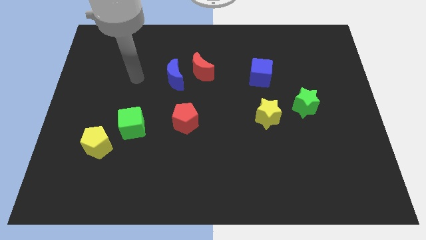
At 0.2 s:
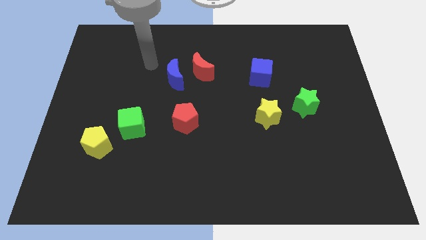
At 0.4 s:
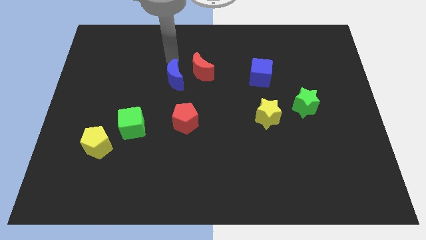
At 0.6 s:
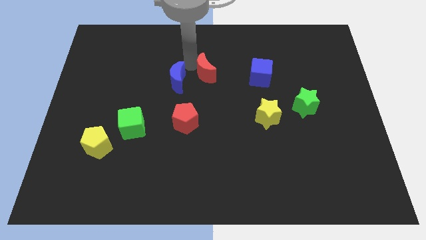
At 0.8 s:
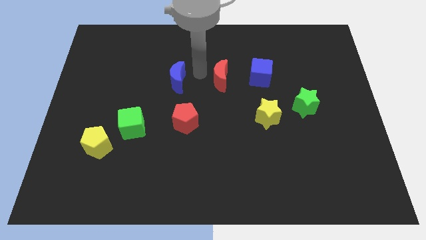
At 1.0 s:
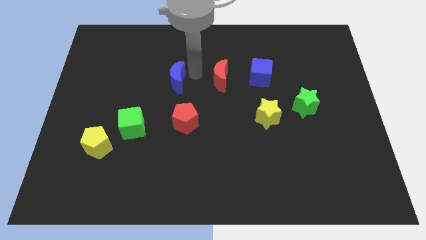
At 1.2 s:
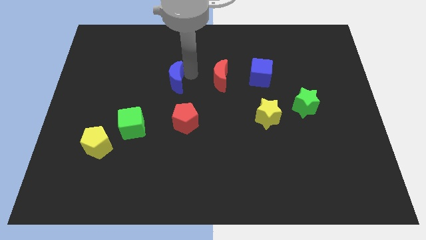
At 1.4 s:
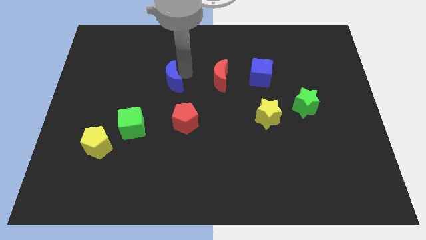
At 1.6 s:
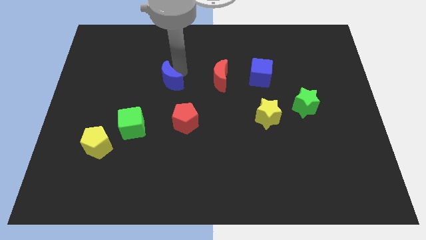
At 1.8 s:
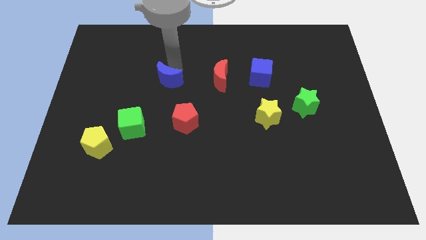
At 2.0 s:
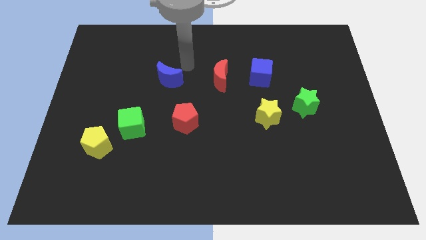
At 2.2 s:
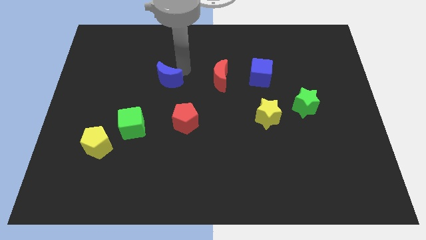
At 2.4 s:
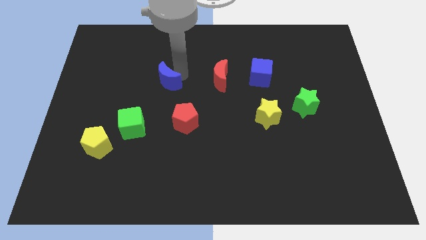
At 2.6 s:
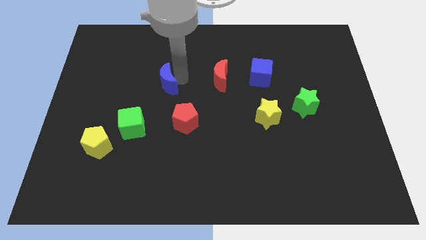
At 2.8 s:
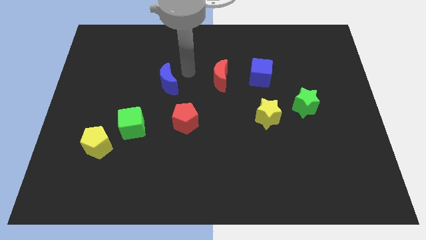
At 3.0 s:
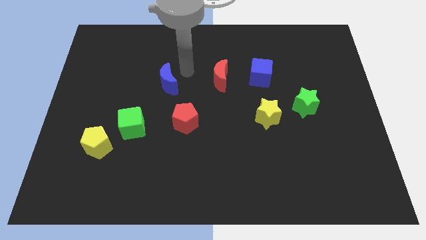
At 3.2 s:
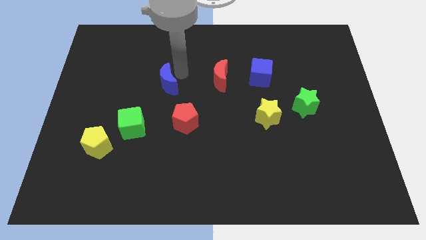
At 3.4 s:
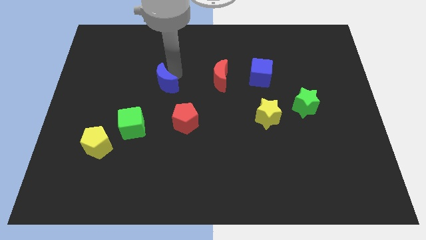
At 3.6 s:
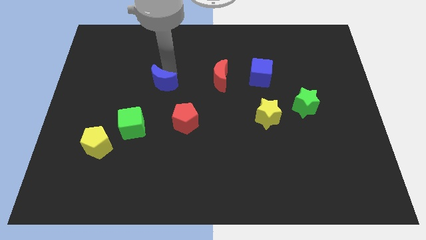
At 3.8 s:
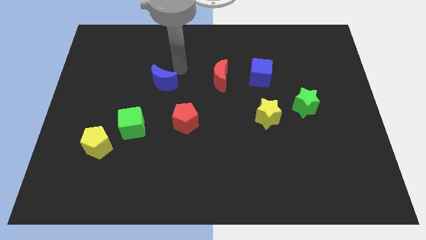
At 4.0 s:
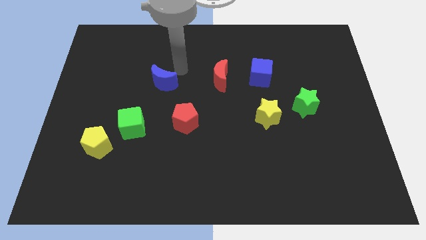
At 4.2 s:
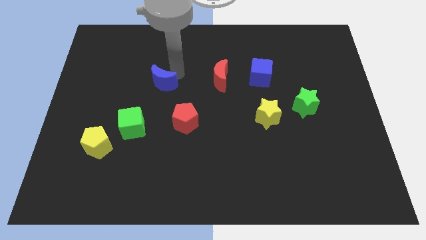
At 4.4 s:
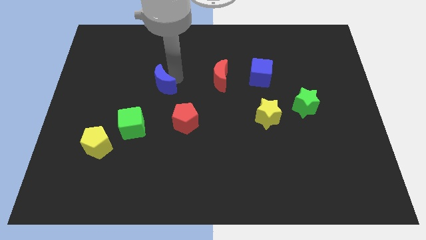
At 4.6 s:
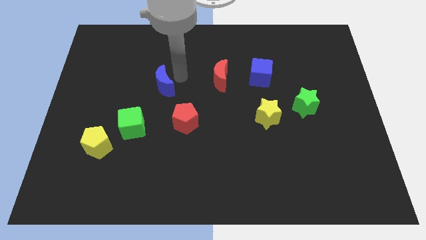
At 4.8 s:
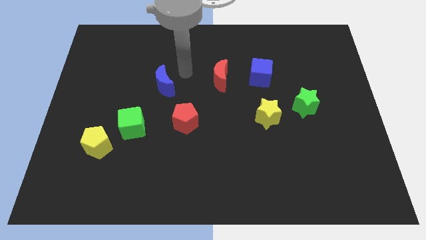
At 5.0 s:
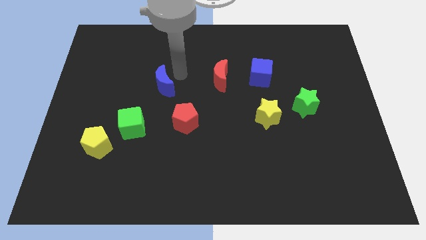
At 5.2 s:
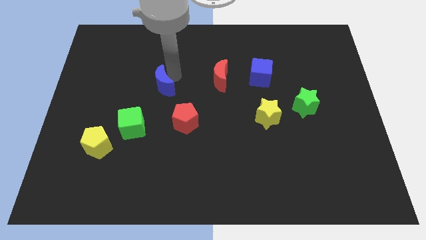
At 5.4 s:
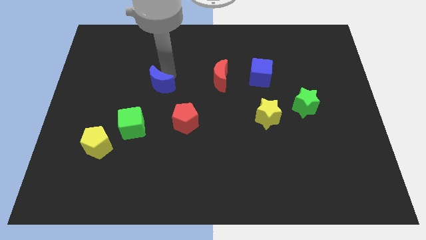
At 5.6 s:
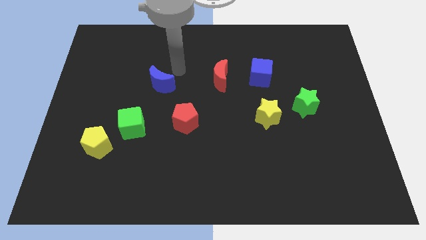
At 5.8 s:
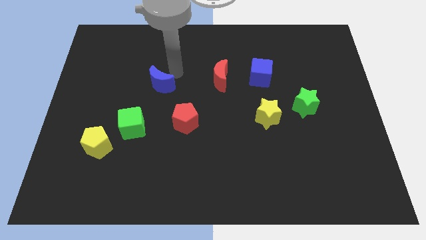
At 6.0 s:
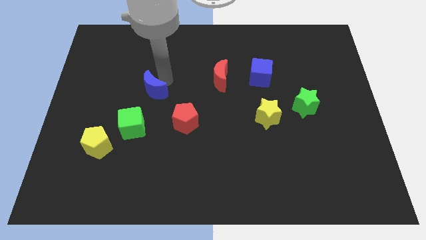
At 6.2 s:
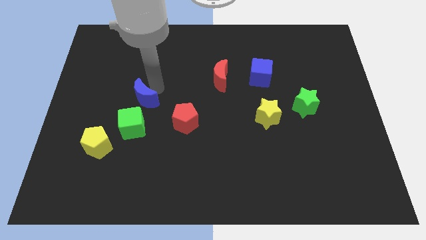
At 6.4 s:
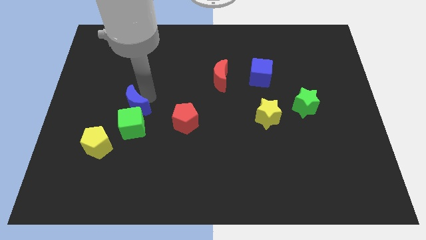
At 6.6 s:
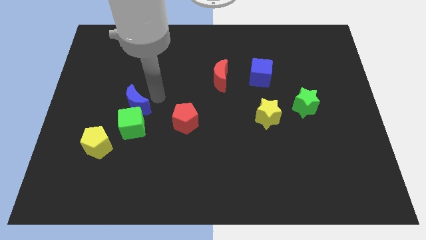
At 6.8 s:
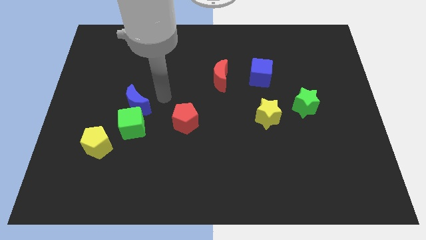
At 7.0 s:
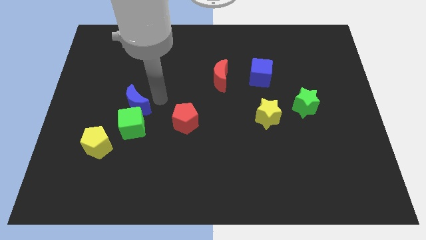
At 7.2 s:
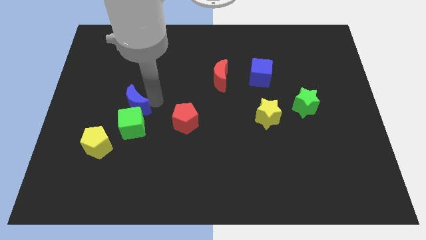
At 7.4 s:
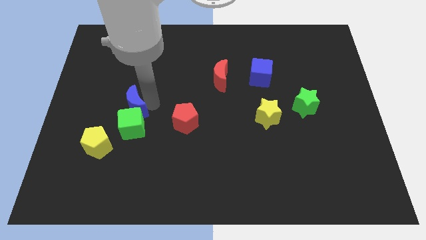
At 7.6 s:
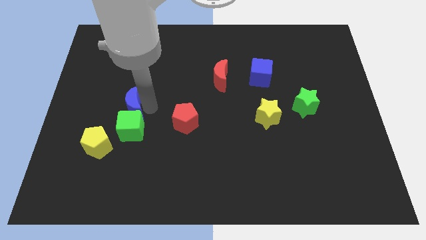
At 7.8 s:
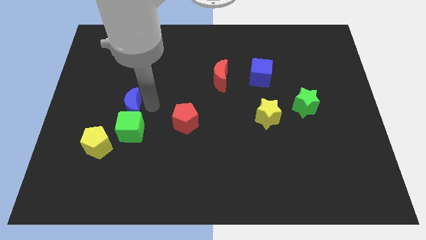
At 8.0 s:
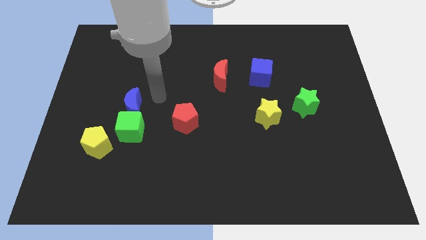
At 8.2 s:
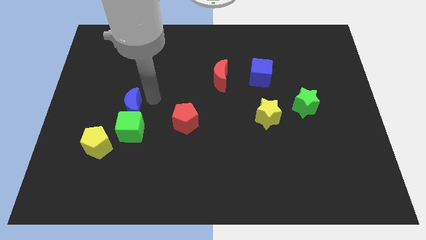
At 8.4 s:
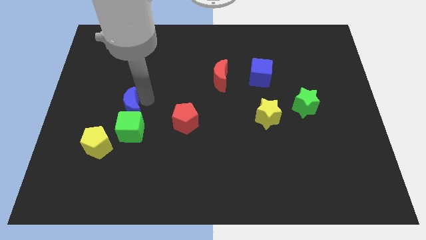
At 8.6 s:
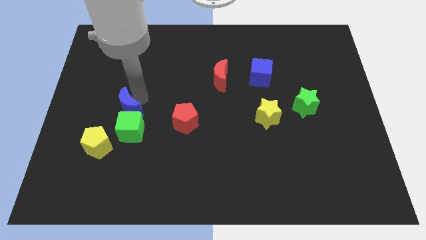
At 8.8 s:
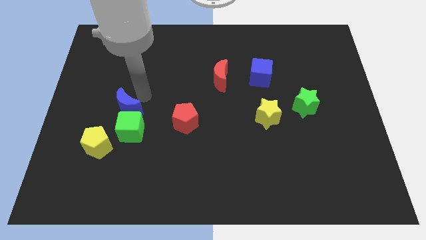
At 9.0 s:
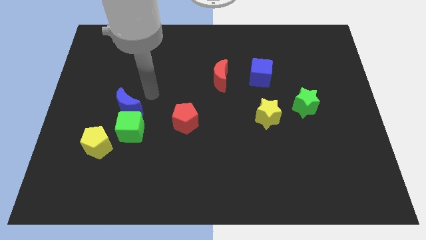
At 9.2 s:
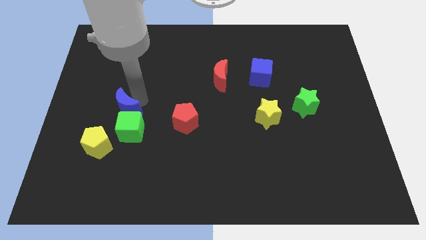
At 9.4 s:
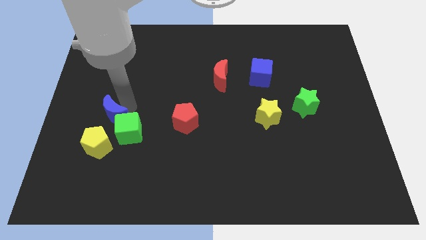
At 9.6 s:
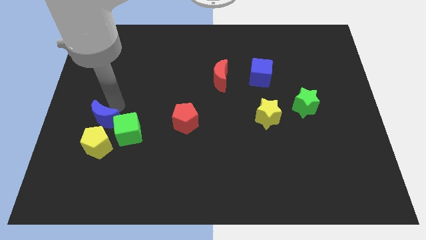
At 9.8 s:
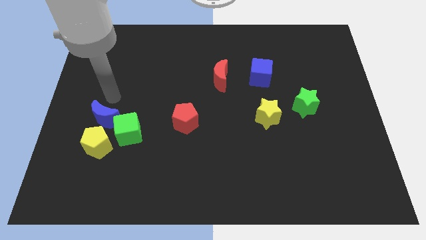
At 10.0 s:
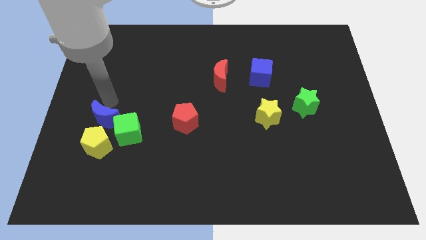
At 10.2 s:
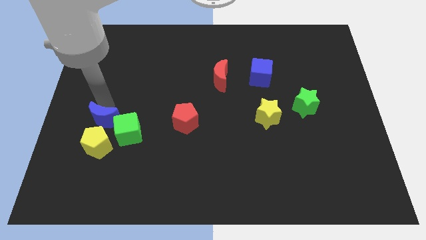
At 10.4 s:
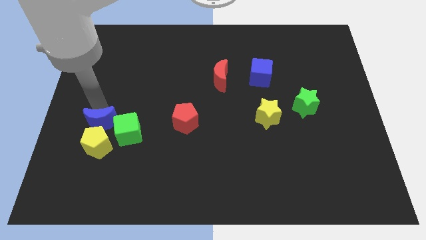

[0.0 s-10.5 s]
push the blue moon to the yellow pentagon

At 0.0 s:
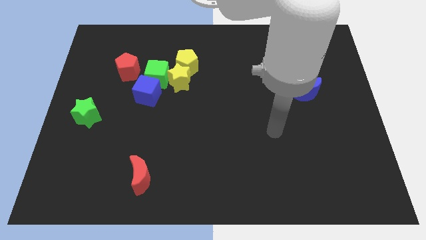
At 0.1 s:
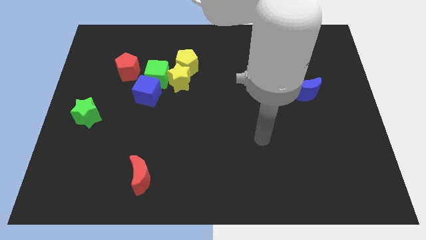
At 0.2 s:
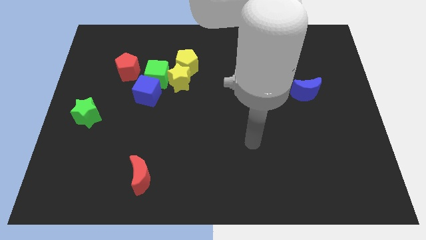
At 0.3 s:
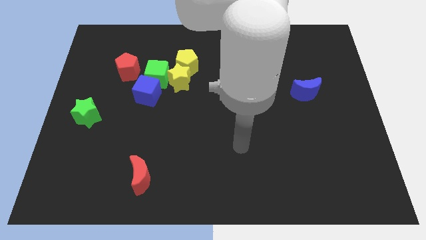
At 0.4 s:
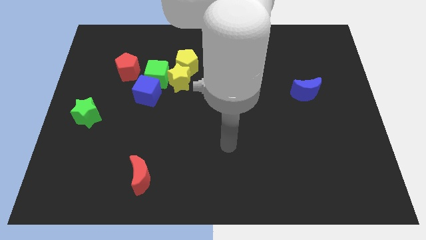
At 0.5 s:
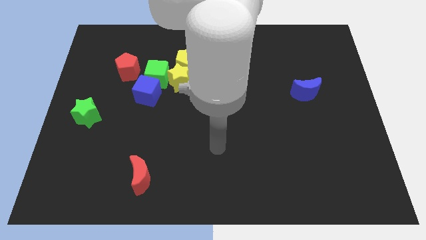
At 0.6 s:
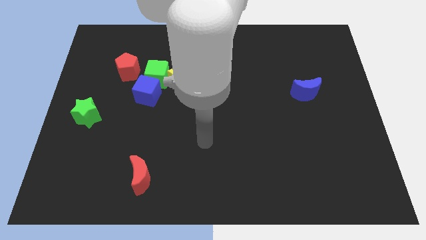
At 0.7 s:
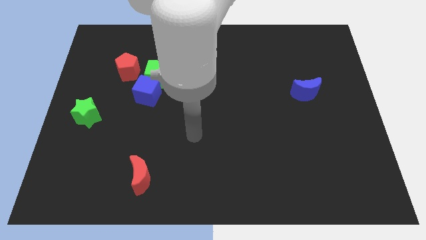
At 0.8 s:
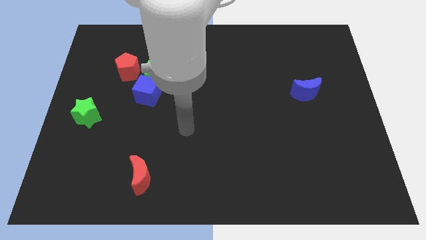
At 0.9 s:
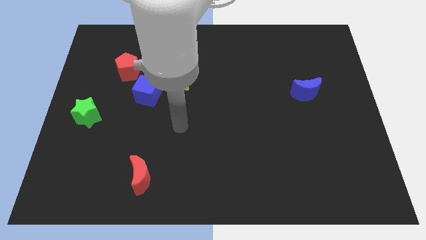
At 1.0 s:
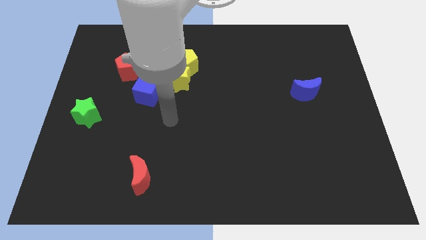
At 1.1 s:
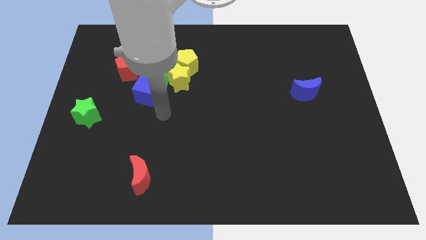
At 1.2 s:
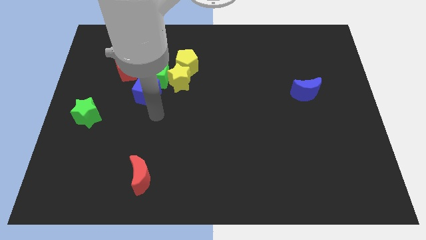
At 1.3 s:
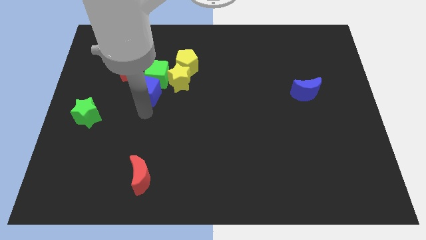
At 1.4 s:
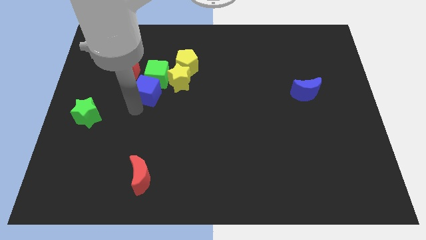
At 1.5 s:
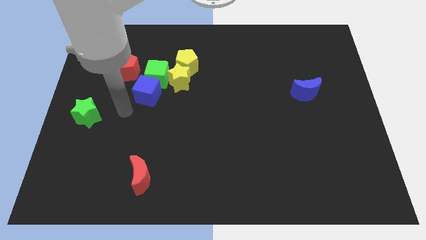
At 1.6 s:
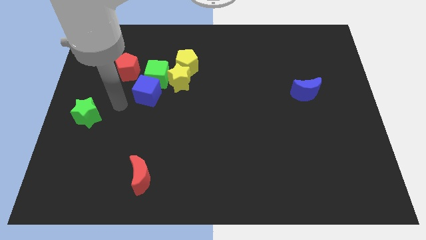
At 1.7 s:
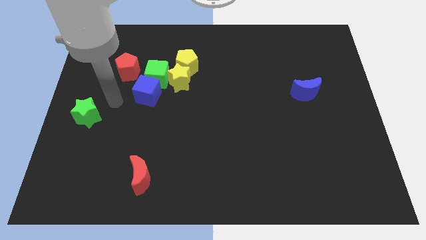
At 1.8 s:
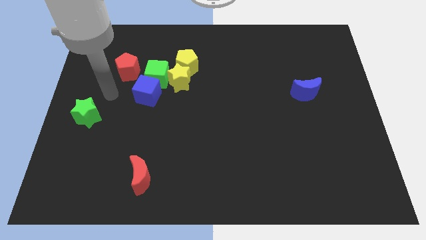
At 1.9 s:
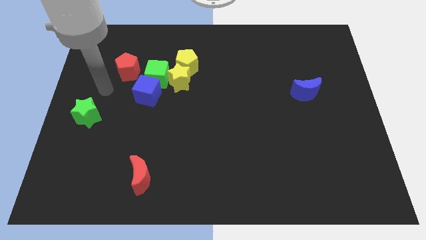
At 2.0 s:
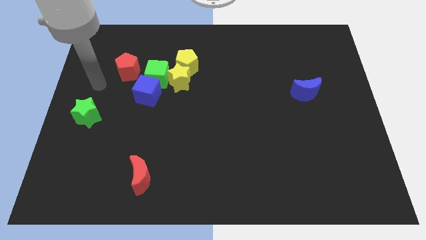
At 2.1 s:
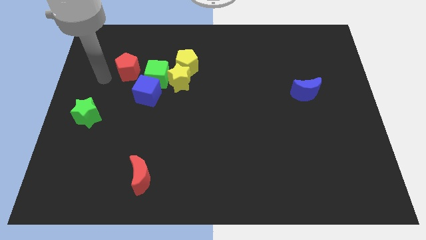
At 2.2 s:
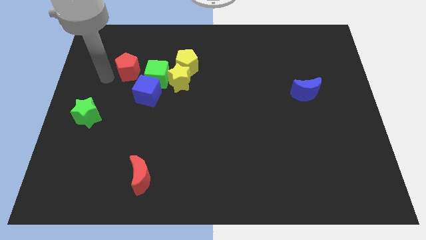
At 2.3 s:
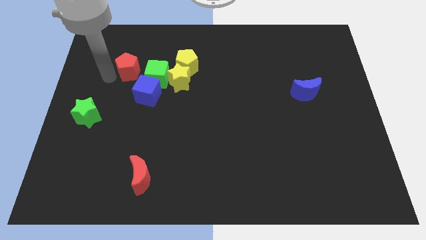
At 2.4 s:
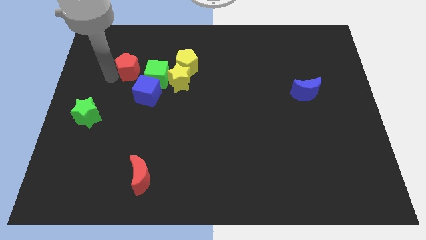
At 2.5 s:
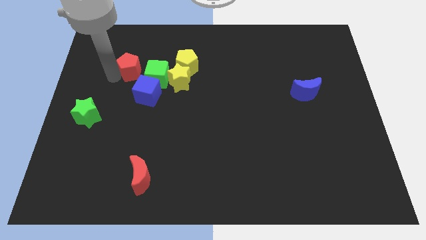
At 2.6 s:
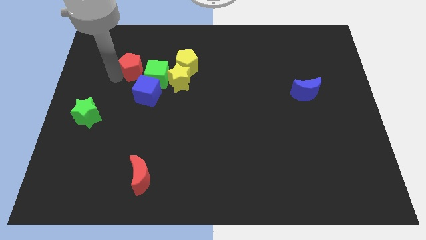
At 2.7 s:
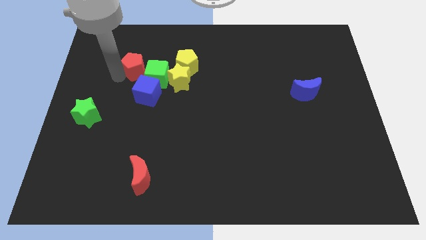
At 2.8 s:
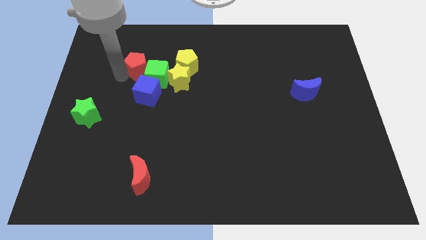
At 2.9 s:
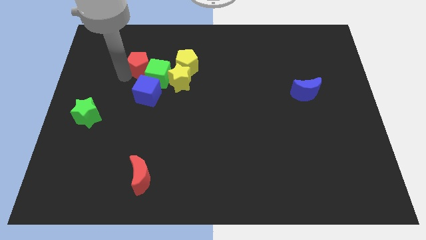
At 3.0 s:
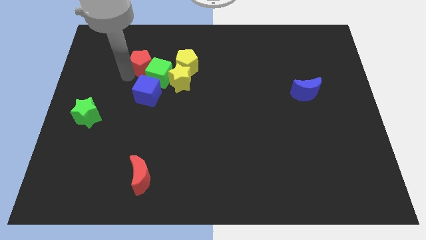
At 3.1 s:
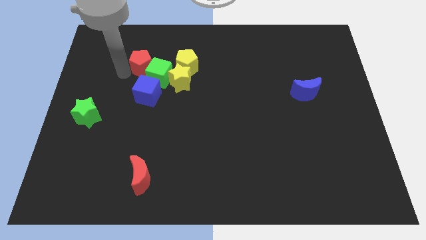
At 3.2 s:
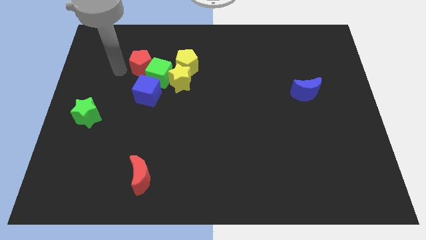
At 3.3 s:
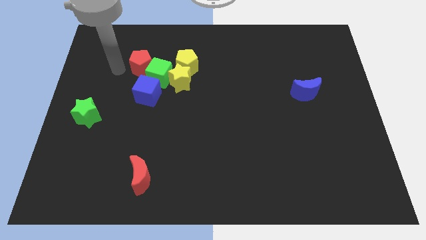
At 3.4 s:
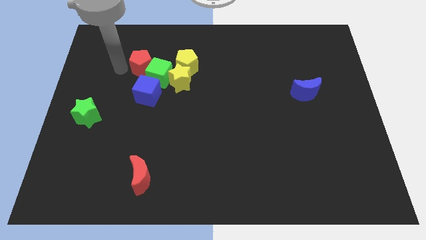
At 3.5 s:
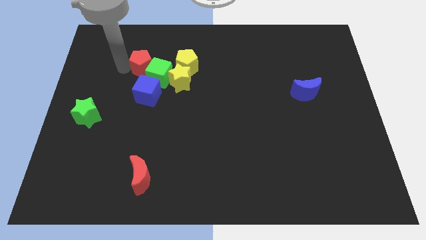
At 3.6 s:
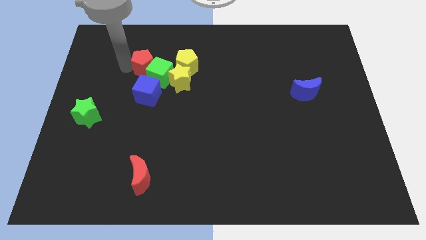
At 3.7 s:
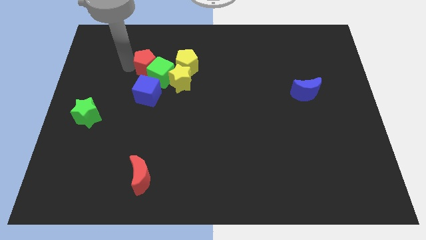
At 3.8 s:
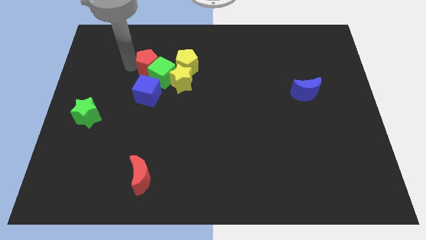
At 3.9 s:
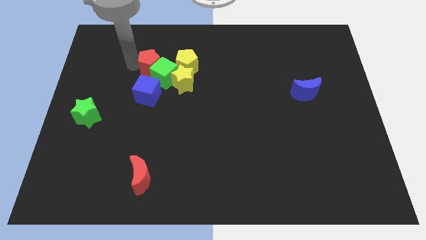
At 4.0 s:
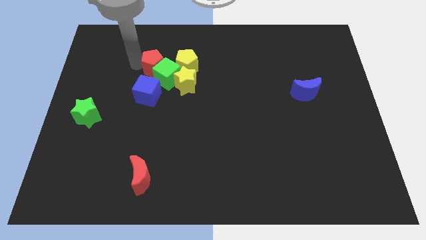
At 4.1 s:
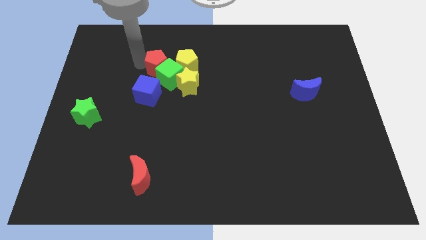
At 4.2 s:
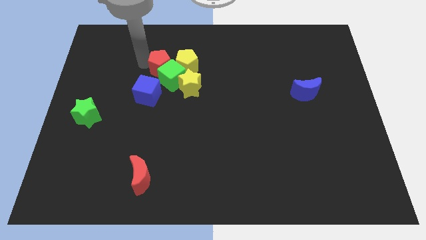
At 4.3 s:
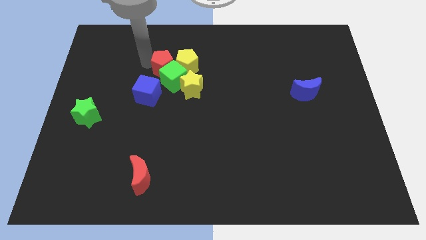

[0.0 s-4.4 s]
move the red pentagon close to the yellow pentagon
